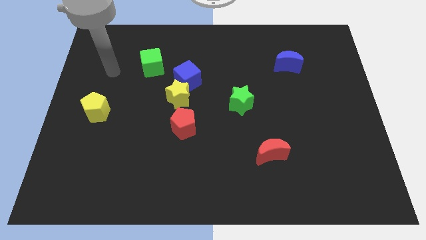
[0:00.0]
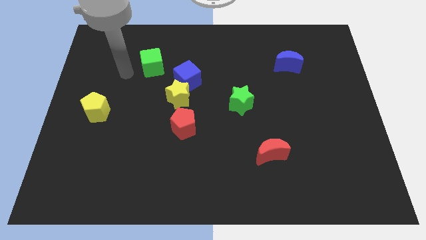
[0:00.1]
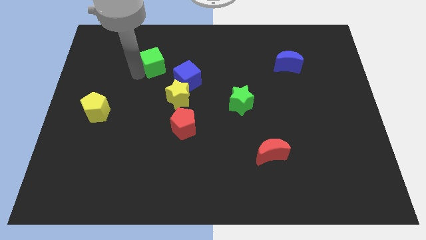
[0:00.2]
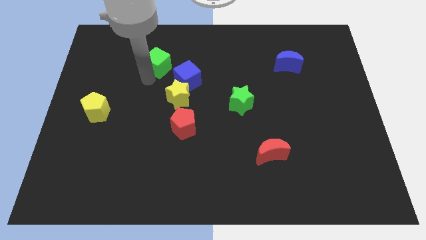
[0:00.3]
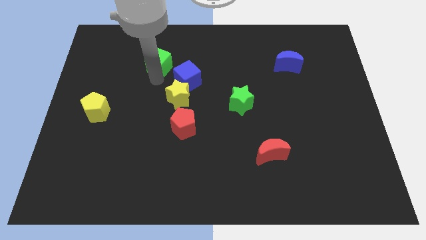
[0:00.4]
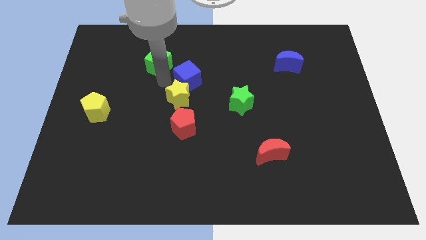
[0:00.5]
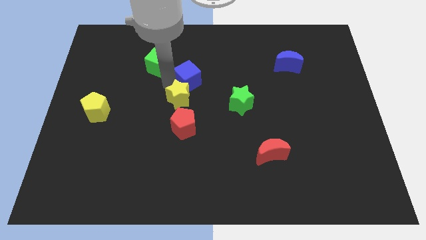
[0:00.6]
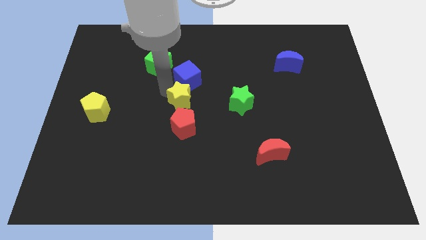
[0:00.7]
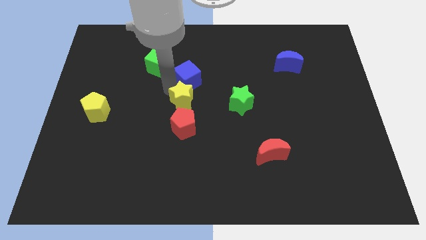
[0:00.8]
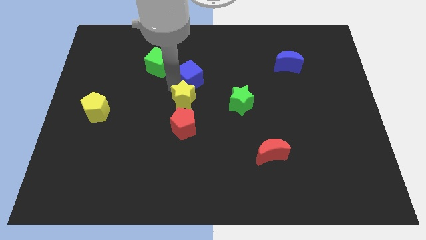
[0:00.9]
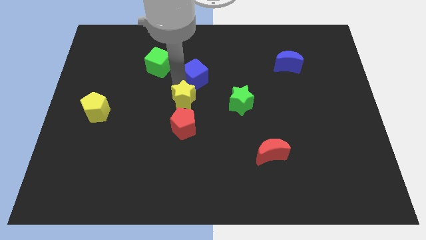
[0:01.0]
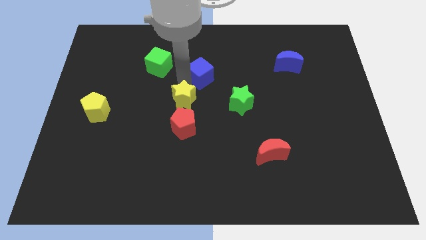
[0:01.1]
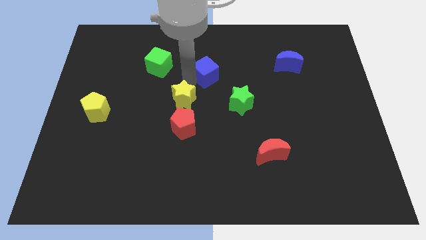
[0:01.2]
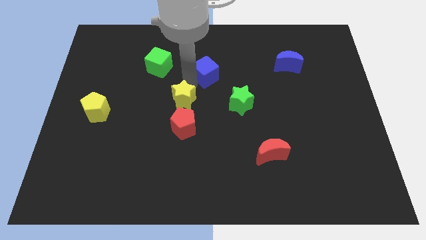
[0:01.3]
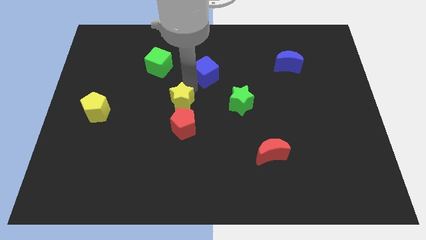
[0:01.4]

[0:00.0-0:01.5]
pull the blue cube apart from the yellow star

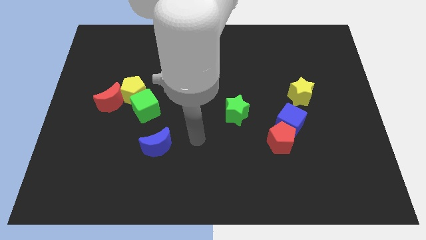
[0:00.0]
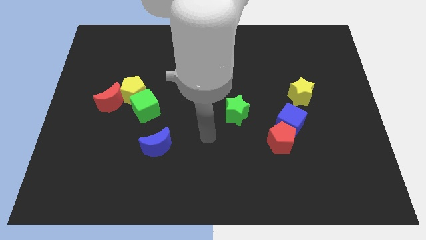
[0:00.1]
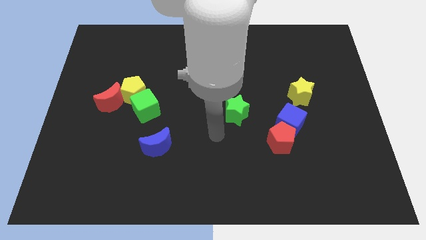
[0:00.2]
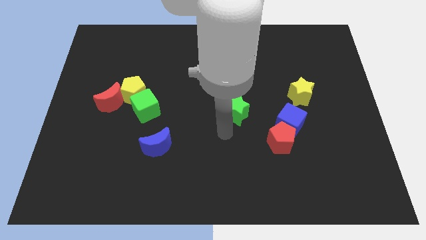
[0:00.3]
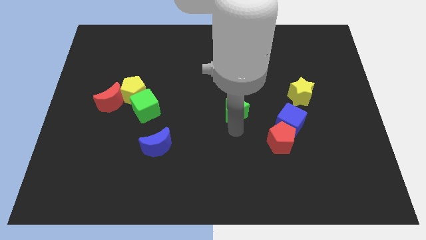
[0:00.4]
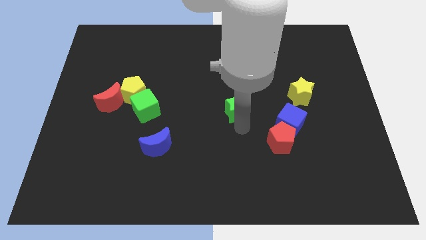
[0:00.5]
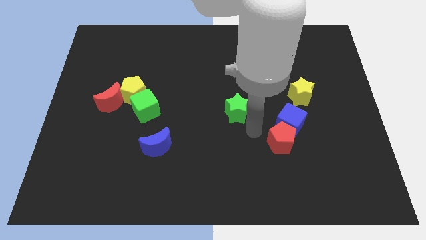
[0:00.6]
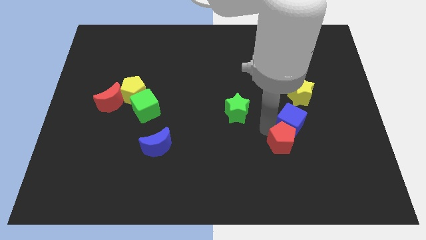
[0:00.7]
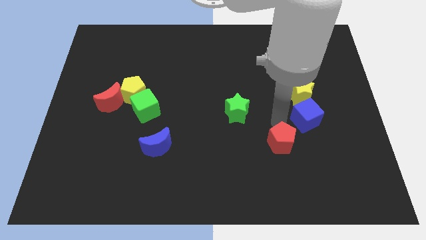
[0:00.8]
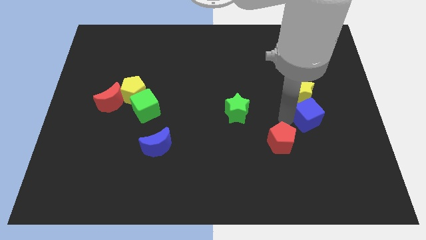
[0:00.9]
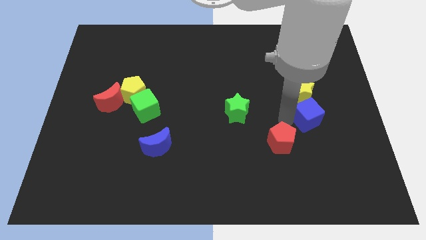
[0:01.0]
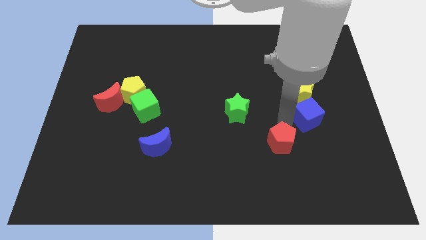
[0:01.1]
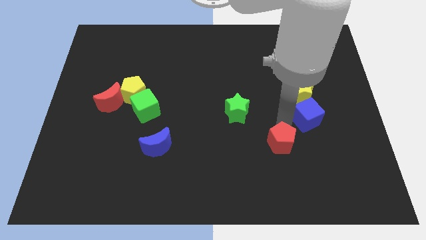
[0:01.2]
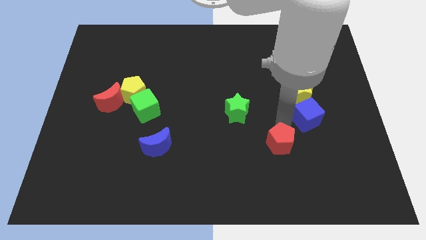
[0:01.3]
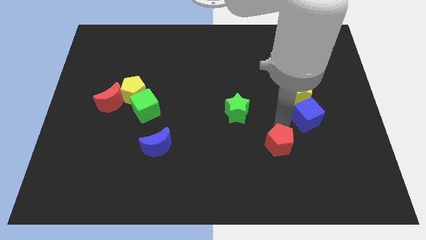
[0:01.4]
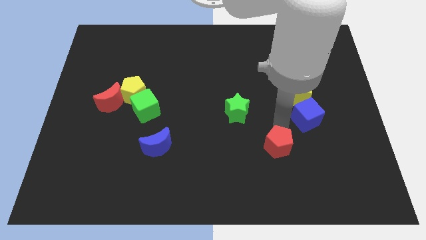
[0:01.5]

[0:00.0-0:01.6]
pull the red pentagon apart from the blue cube

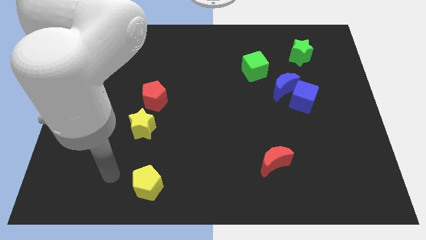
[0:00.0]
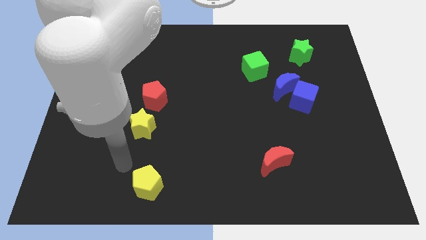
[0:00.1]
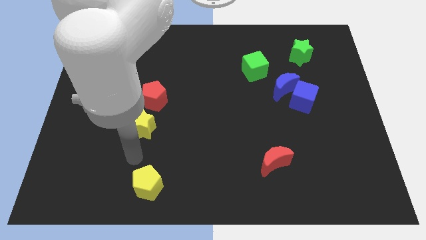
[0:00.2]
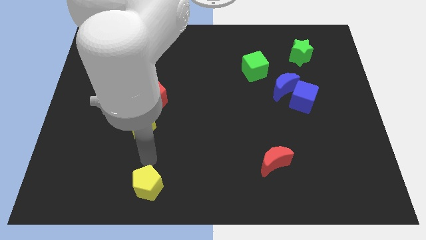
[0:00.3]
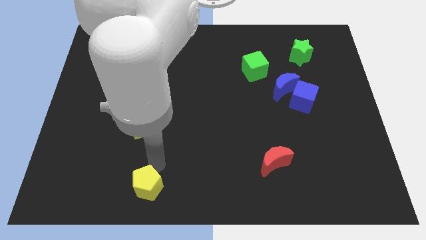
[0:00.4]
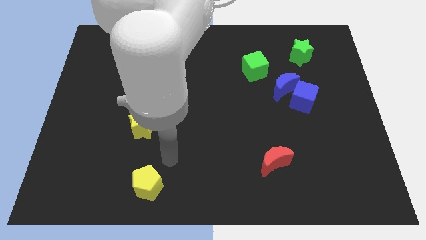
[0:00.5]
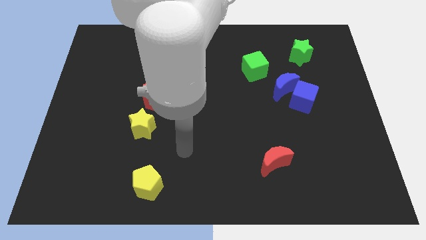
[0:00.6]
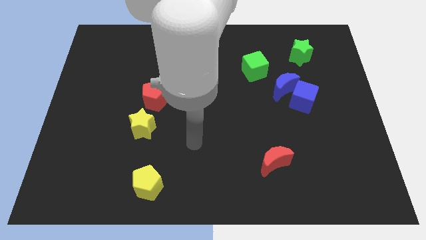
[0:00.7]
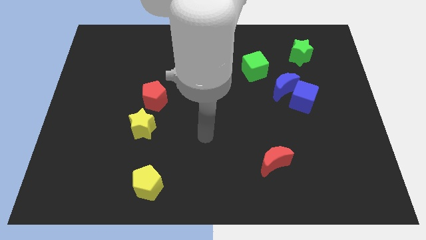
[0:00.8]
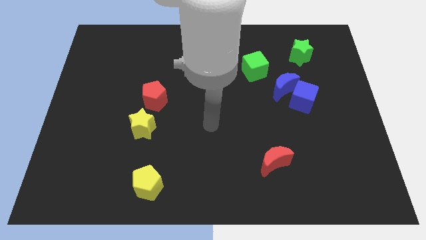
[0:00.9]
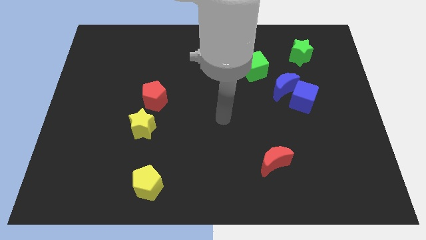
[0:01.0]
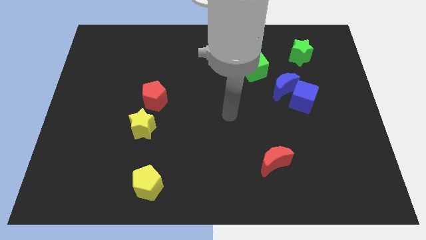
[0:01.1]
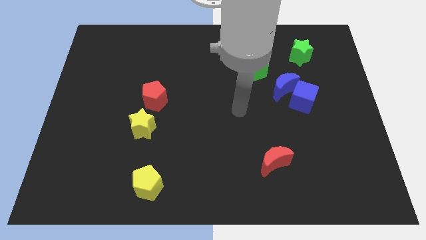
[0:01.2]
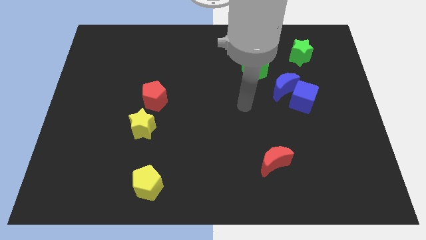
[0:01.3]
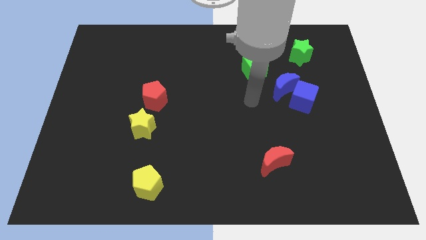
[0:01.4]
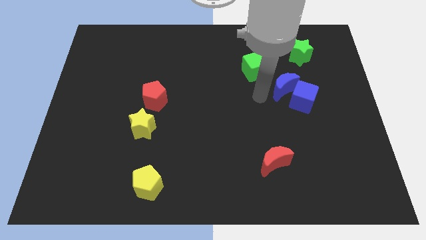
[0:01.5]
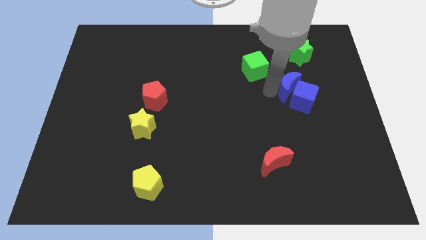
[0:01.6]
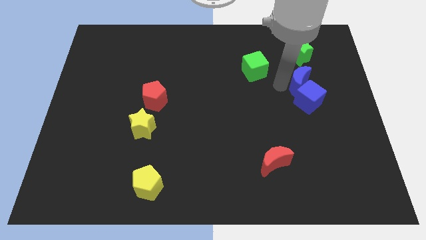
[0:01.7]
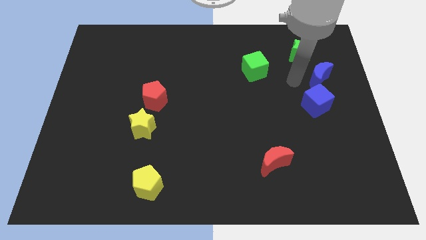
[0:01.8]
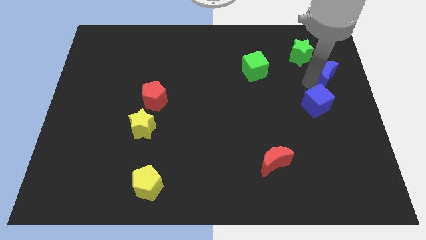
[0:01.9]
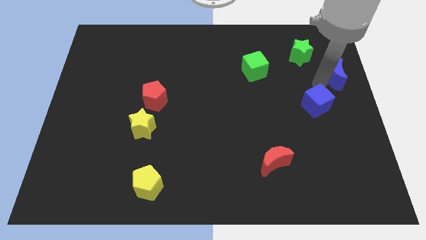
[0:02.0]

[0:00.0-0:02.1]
move the blue cube away from the blue moon

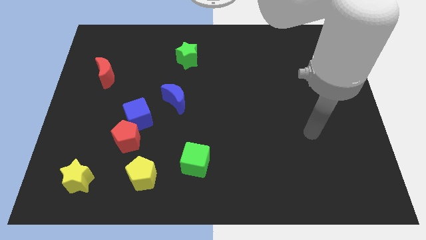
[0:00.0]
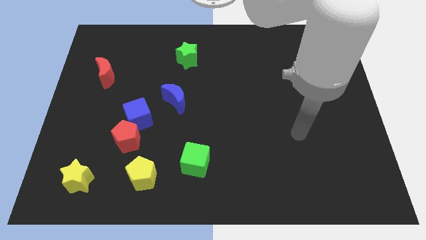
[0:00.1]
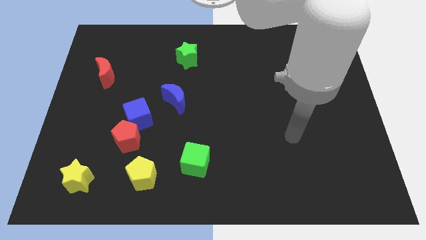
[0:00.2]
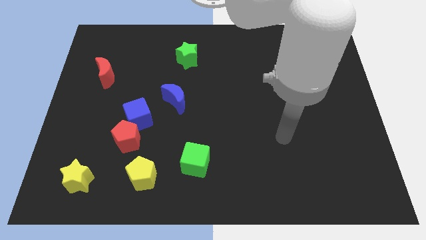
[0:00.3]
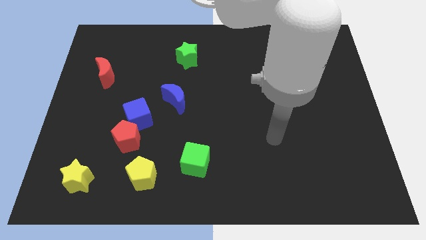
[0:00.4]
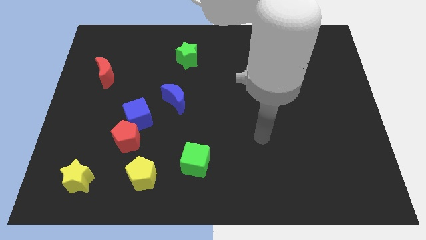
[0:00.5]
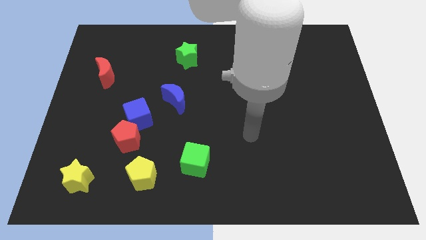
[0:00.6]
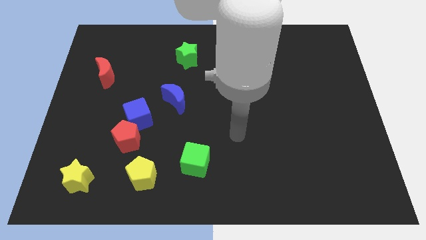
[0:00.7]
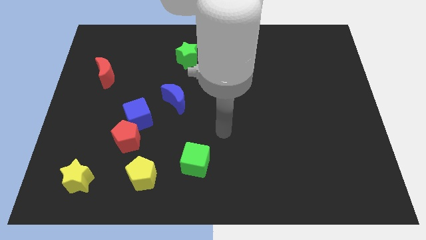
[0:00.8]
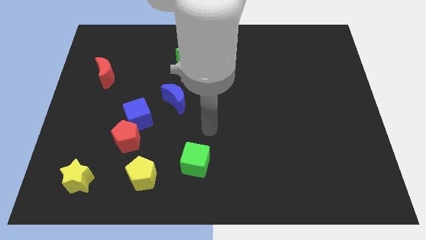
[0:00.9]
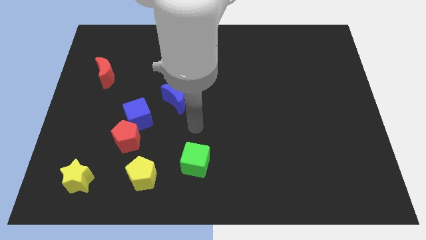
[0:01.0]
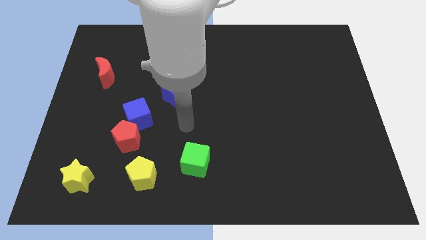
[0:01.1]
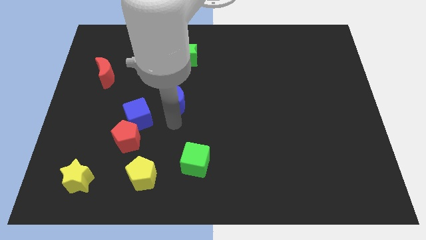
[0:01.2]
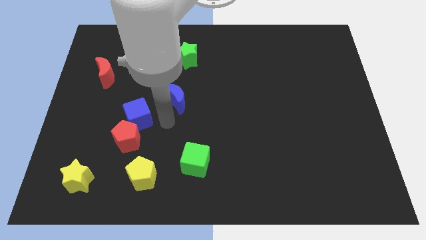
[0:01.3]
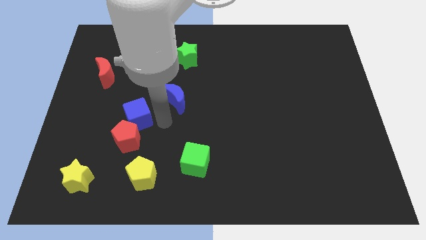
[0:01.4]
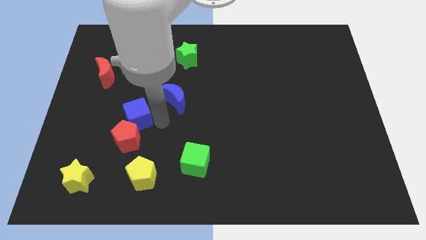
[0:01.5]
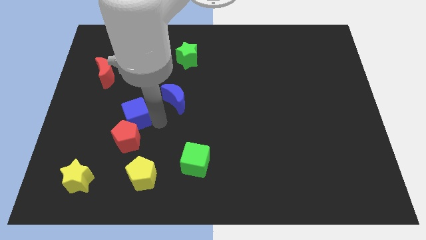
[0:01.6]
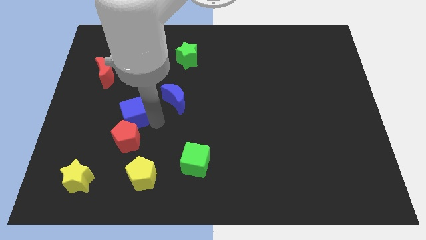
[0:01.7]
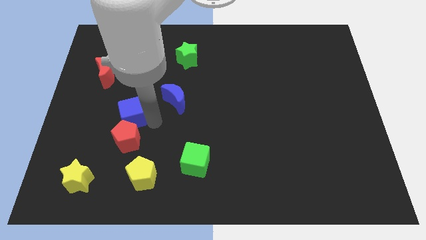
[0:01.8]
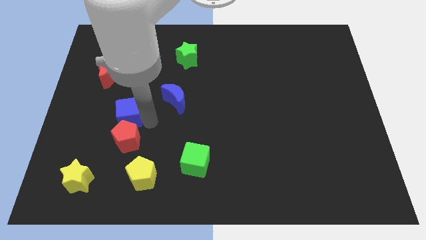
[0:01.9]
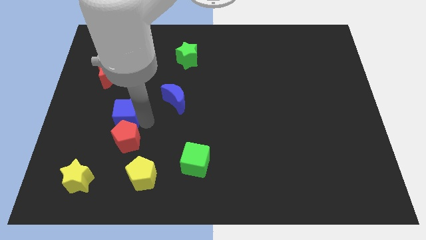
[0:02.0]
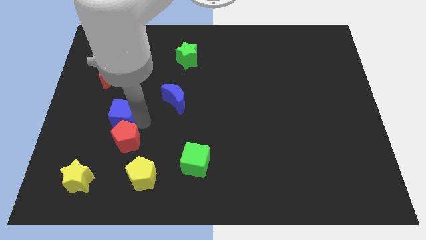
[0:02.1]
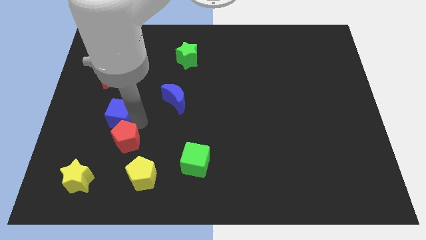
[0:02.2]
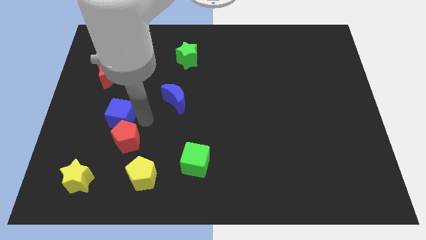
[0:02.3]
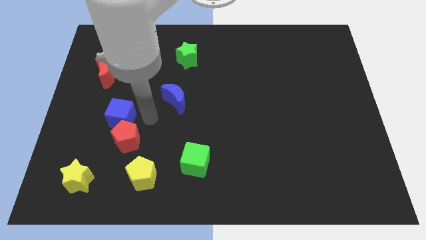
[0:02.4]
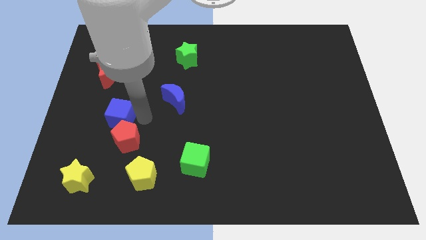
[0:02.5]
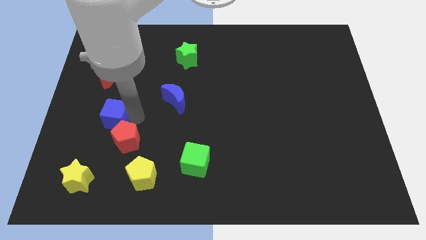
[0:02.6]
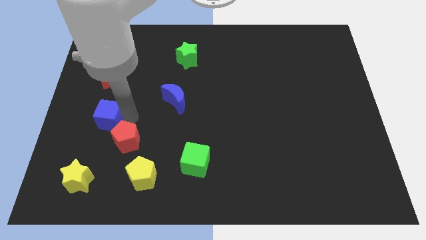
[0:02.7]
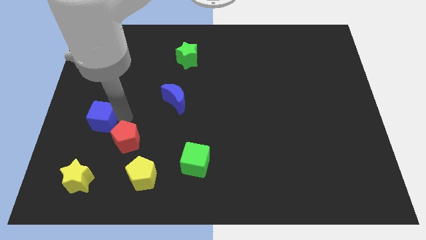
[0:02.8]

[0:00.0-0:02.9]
pull the blue cube apart from the red pentagon and blue moon

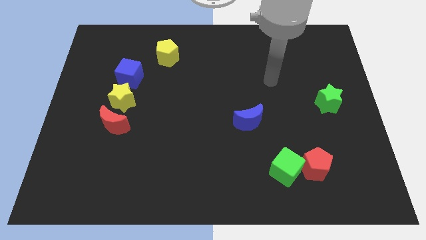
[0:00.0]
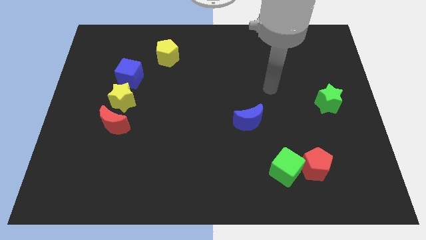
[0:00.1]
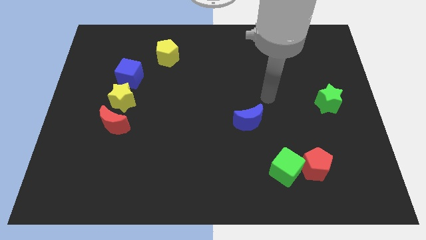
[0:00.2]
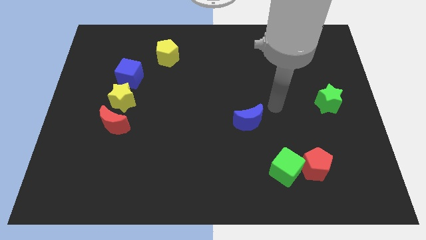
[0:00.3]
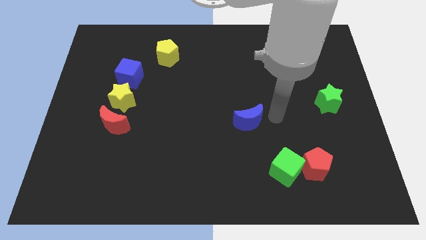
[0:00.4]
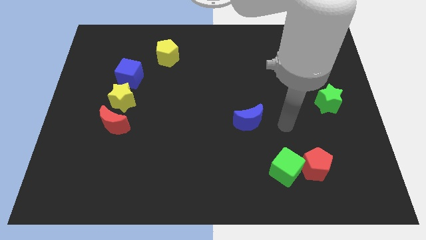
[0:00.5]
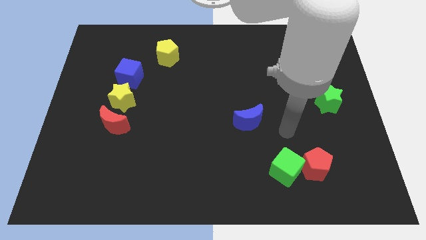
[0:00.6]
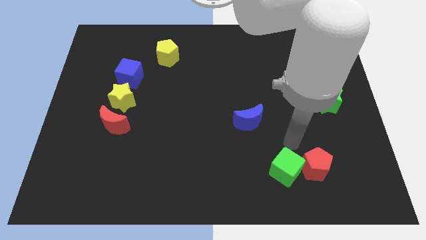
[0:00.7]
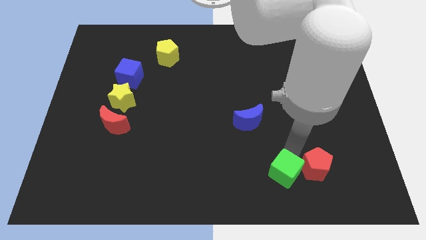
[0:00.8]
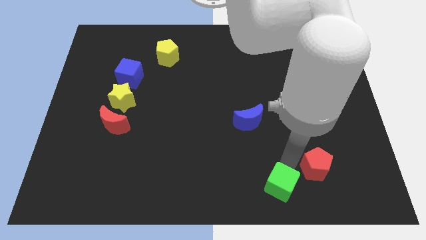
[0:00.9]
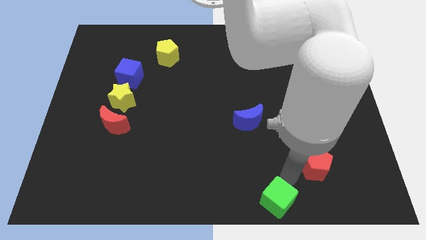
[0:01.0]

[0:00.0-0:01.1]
separate the red pentagon from the green cube

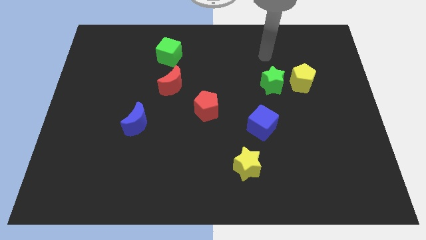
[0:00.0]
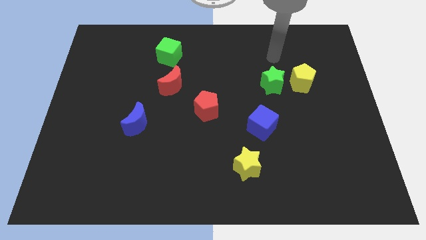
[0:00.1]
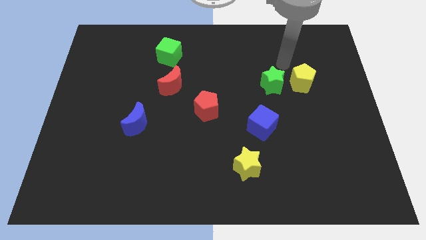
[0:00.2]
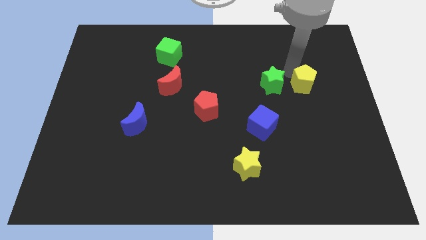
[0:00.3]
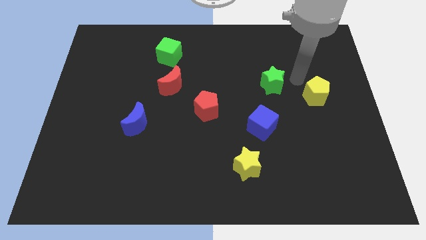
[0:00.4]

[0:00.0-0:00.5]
move the green star away from the yellow pentagon
